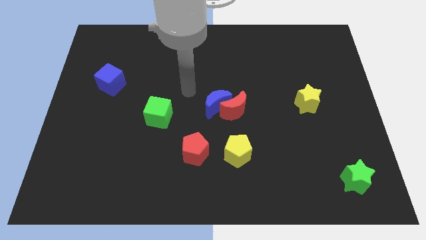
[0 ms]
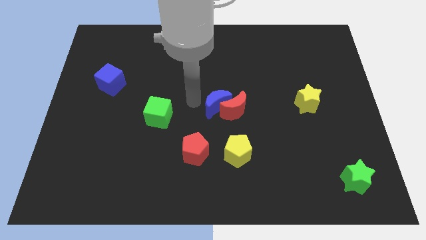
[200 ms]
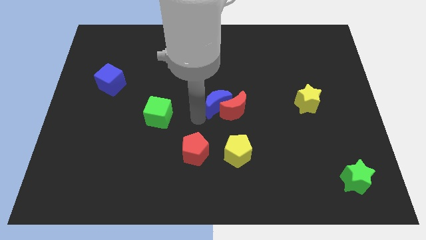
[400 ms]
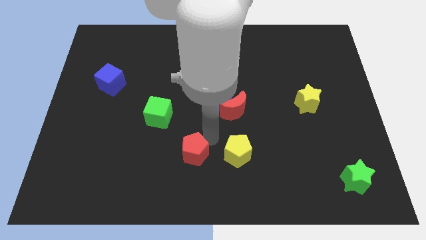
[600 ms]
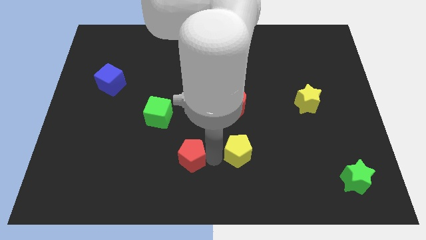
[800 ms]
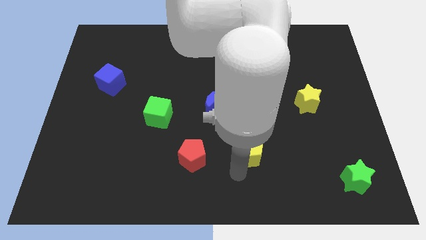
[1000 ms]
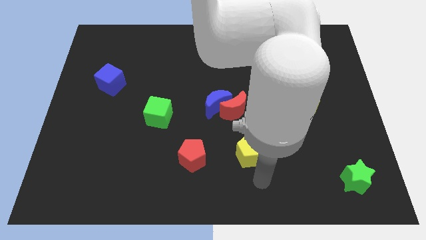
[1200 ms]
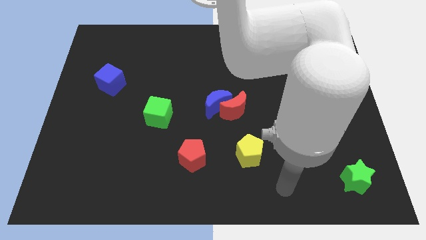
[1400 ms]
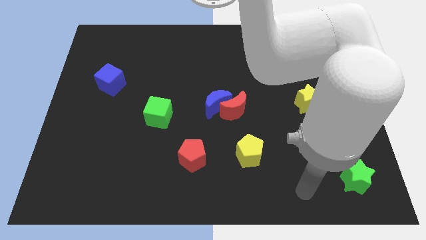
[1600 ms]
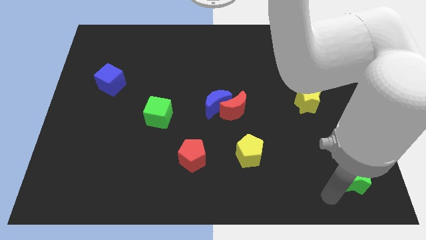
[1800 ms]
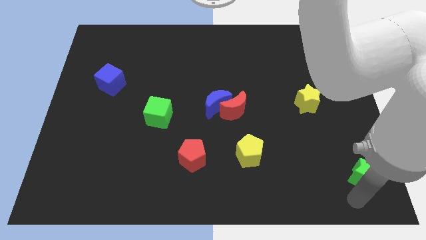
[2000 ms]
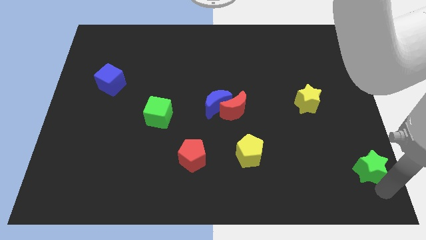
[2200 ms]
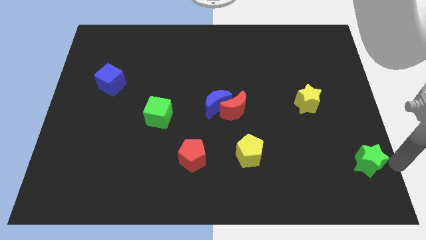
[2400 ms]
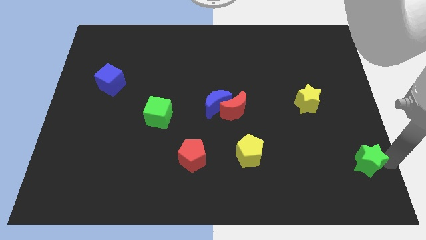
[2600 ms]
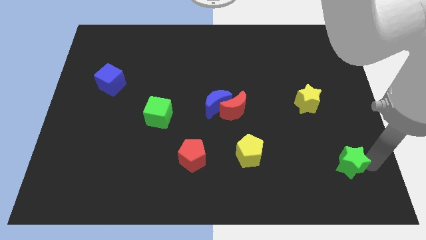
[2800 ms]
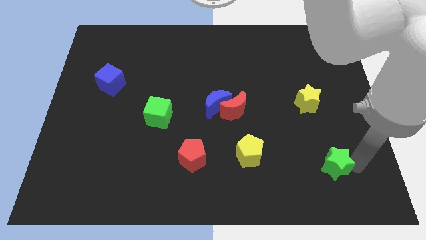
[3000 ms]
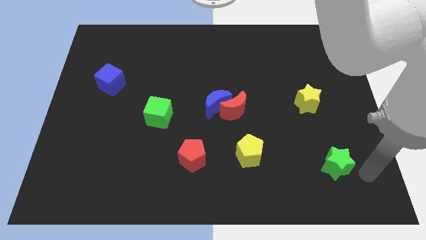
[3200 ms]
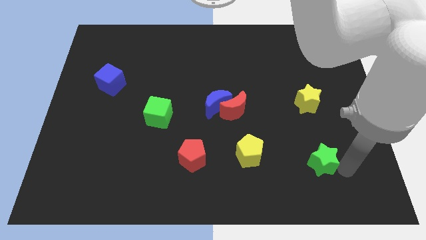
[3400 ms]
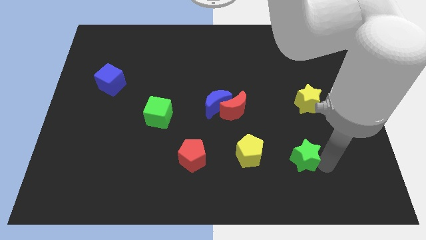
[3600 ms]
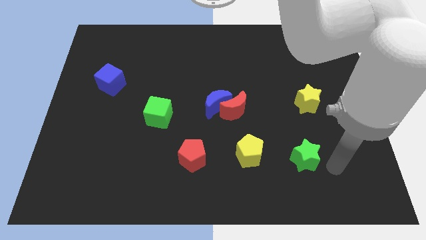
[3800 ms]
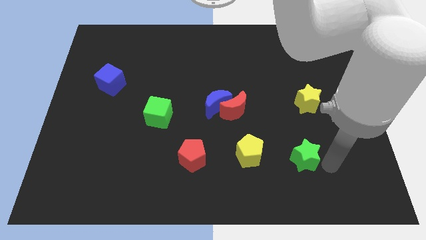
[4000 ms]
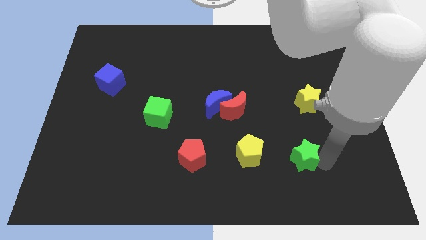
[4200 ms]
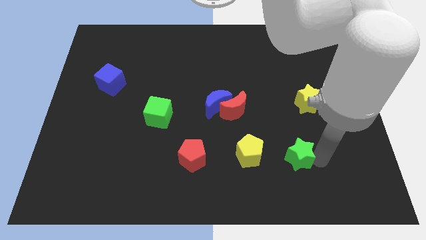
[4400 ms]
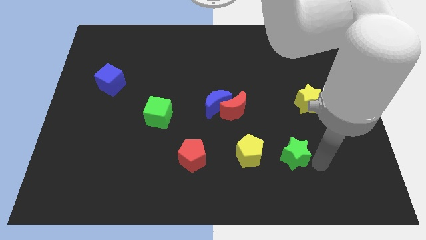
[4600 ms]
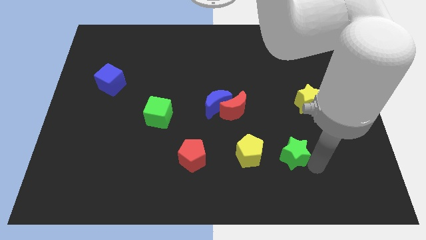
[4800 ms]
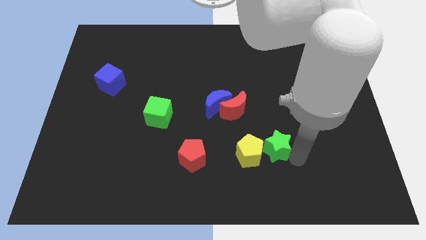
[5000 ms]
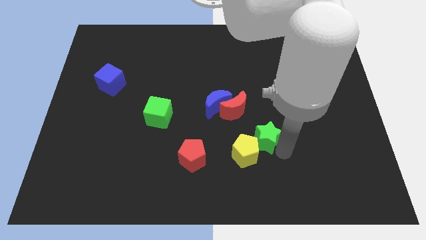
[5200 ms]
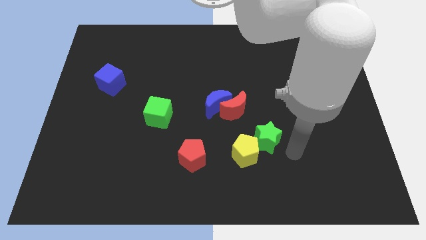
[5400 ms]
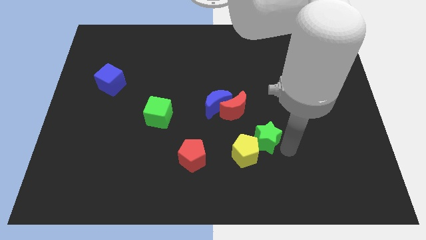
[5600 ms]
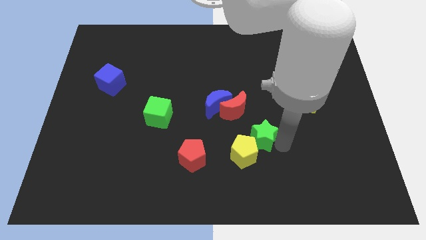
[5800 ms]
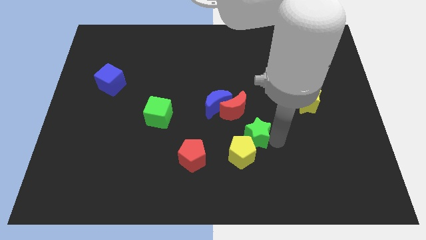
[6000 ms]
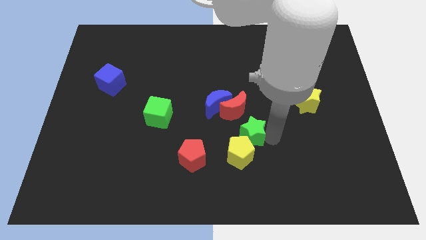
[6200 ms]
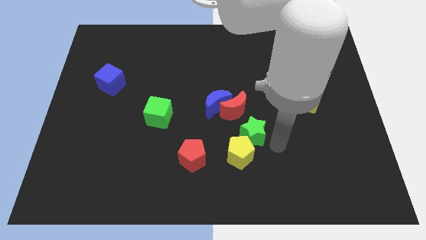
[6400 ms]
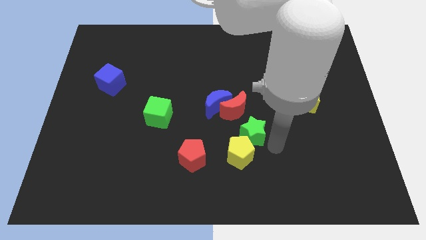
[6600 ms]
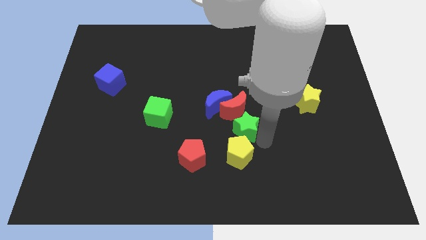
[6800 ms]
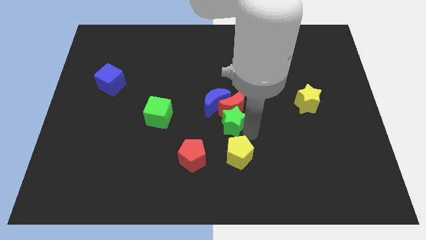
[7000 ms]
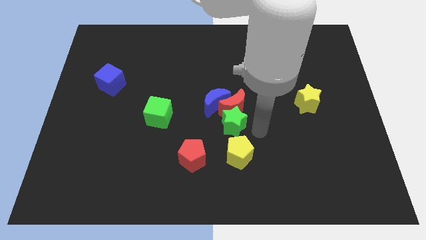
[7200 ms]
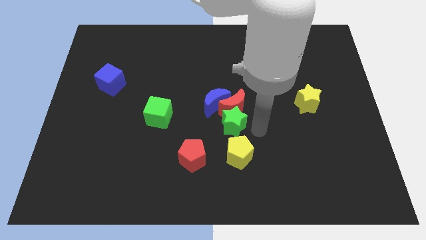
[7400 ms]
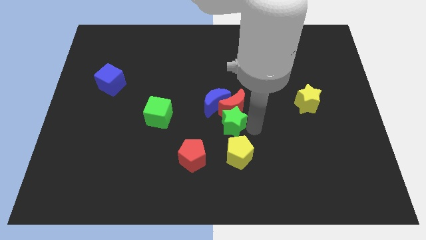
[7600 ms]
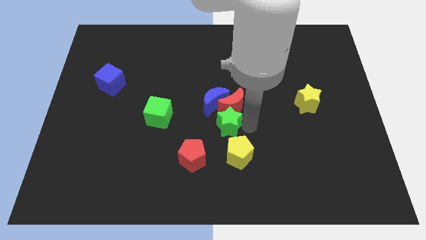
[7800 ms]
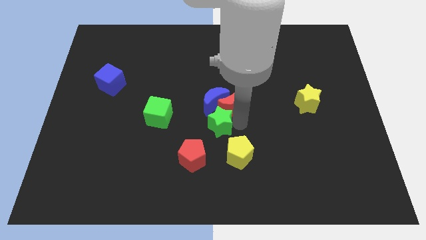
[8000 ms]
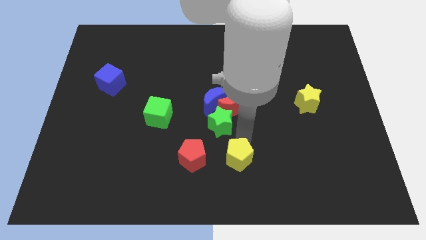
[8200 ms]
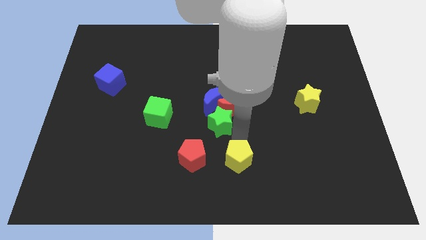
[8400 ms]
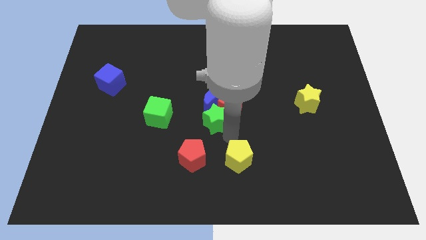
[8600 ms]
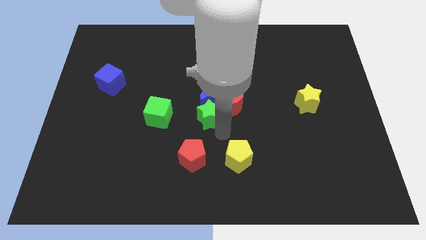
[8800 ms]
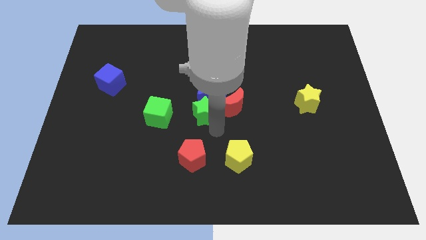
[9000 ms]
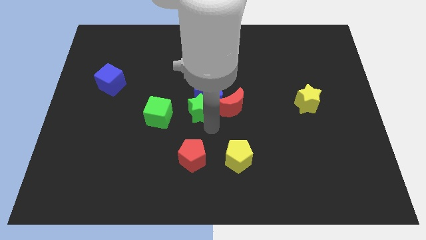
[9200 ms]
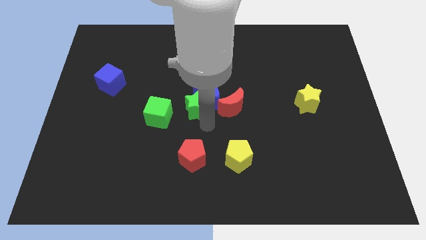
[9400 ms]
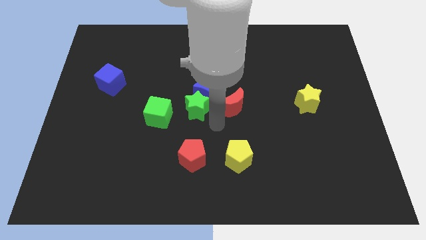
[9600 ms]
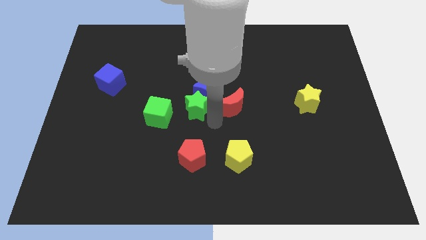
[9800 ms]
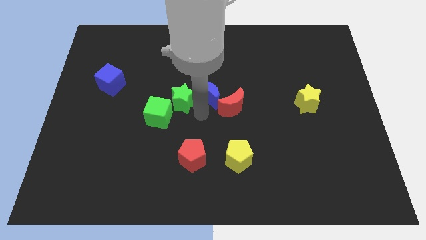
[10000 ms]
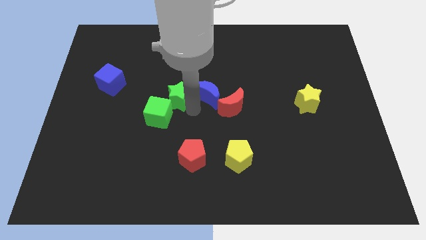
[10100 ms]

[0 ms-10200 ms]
move the green star to the top side of the green cube

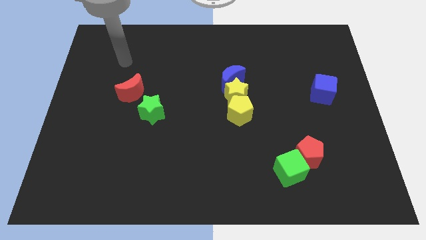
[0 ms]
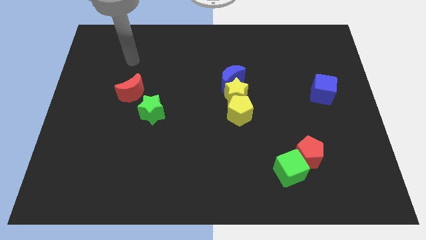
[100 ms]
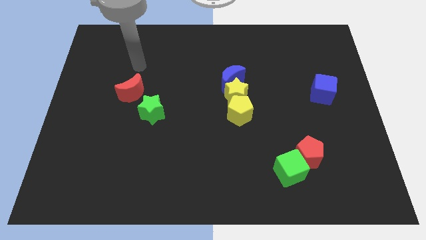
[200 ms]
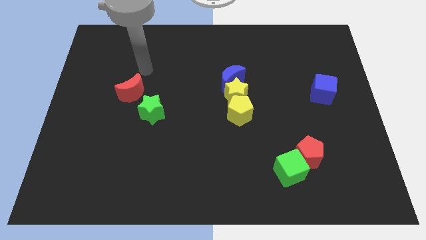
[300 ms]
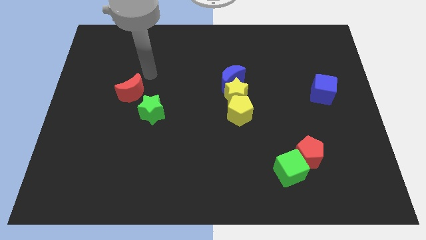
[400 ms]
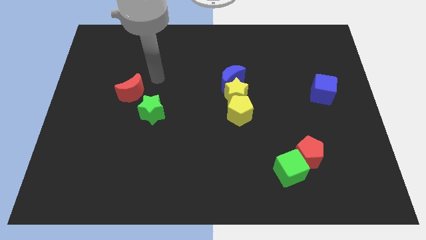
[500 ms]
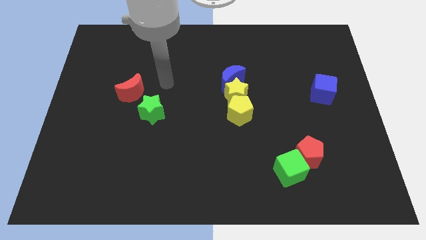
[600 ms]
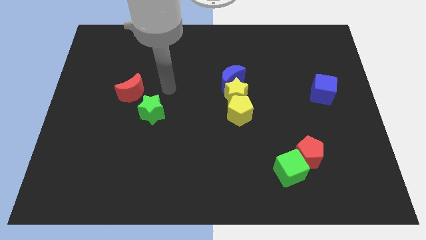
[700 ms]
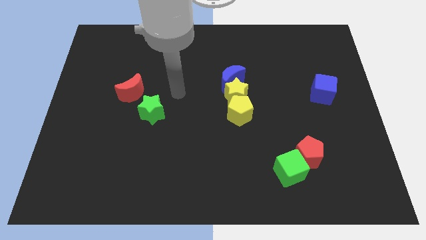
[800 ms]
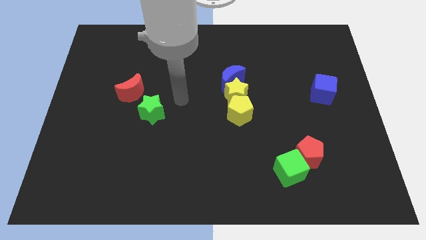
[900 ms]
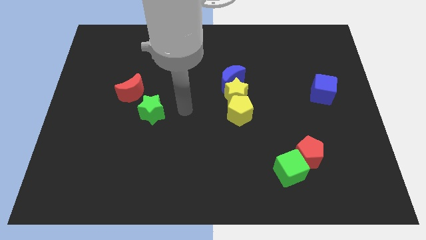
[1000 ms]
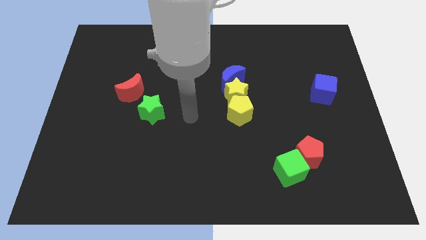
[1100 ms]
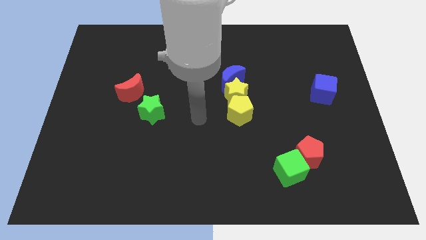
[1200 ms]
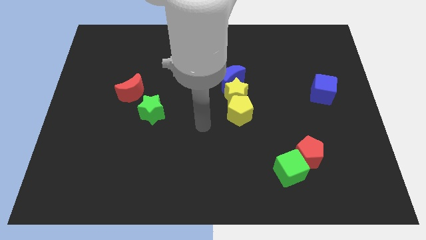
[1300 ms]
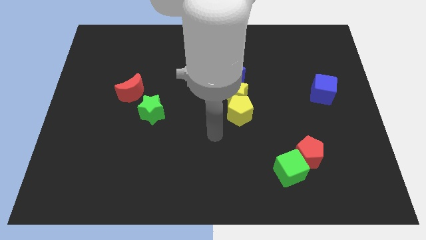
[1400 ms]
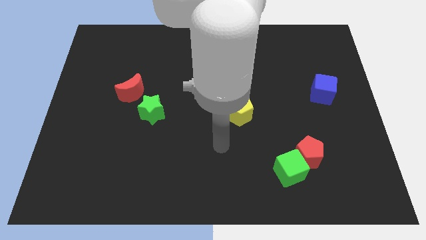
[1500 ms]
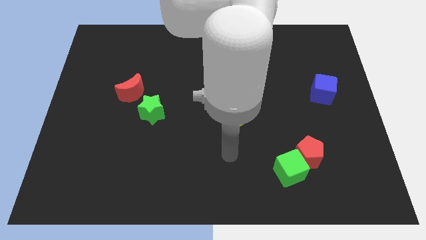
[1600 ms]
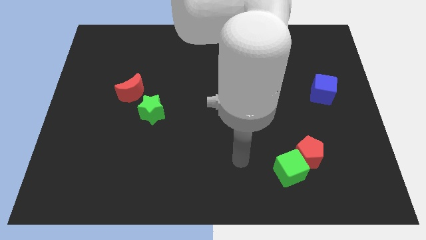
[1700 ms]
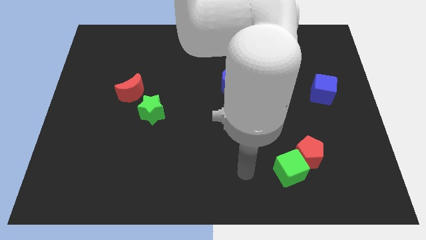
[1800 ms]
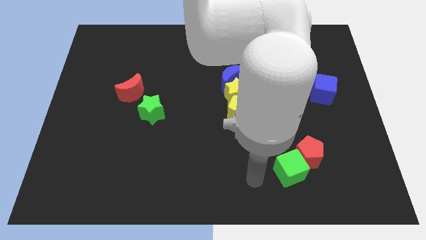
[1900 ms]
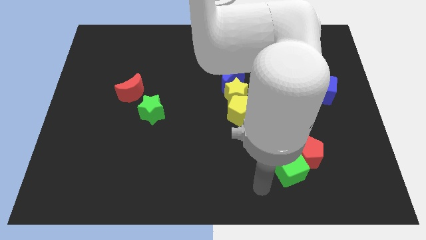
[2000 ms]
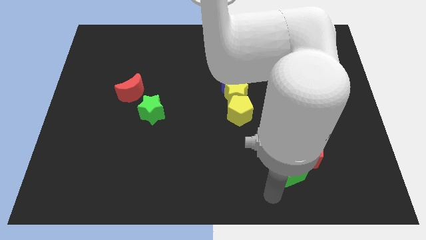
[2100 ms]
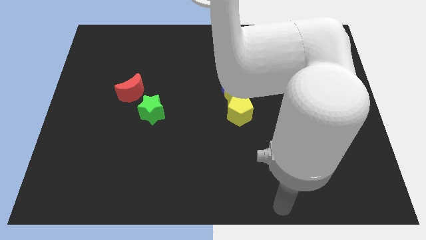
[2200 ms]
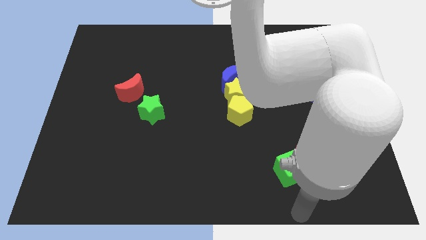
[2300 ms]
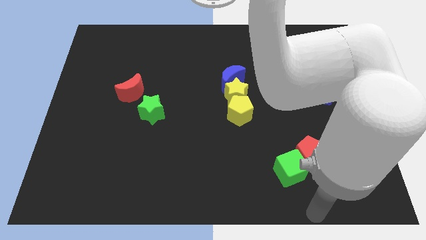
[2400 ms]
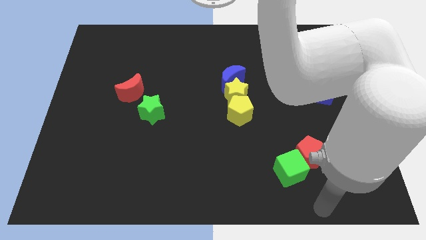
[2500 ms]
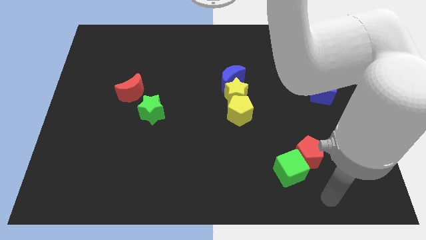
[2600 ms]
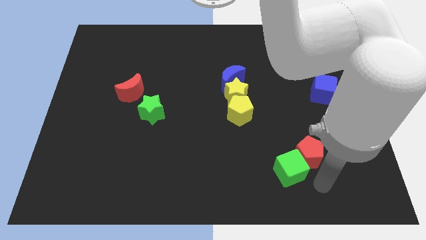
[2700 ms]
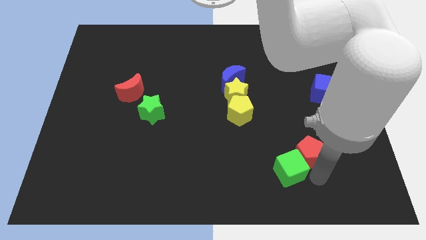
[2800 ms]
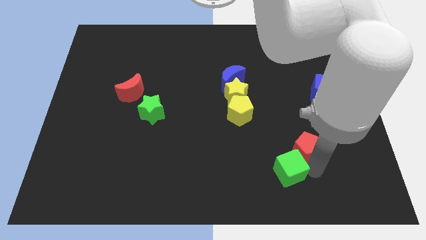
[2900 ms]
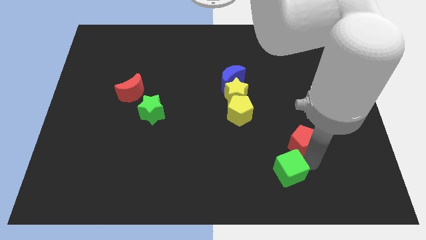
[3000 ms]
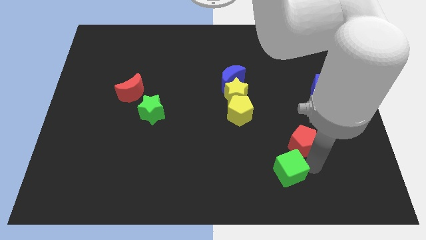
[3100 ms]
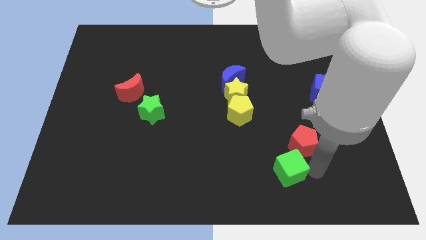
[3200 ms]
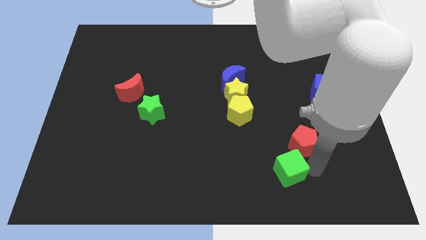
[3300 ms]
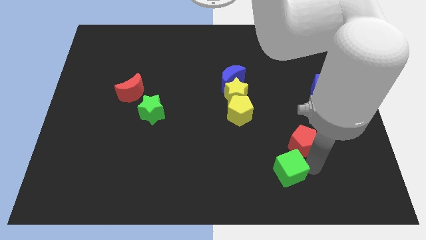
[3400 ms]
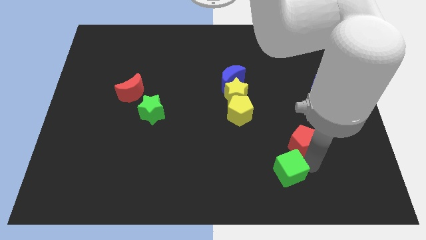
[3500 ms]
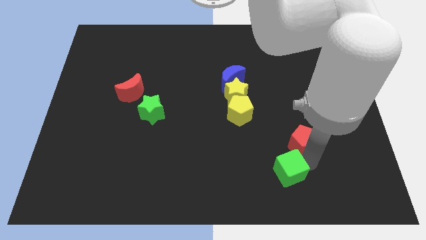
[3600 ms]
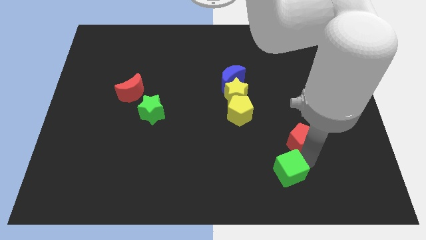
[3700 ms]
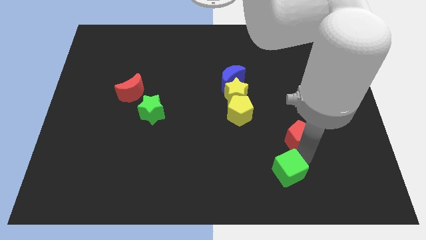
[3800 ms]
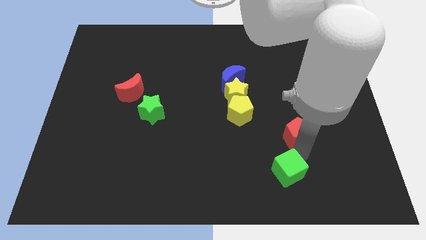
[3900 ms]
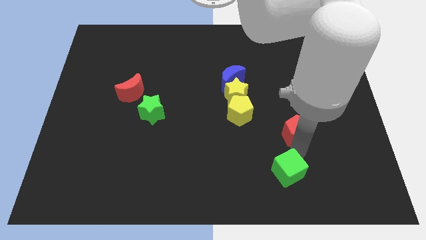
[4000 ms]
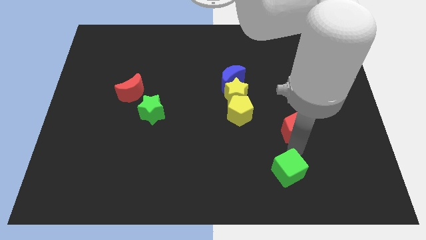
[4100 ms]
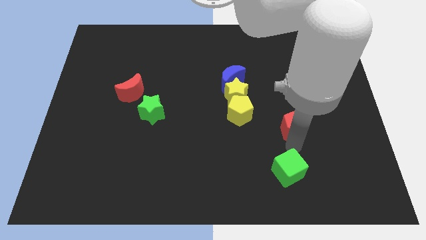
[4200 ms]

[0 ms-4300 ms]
push the red pentagon just right of the yellow pentagon
